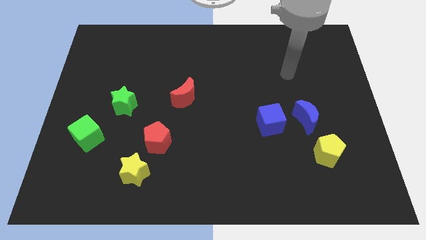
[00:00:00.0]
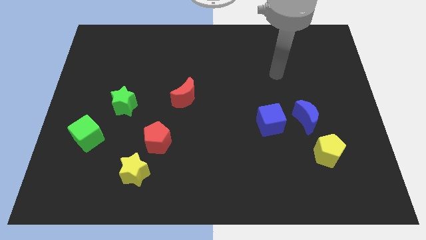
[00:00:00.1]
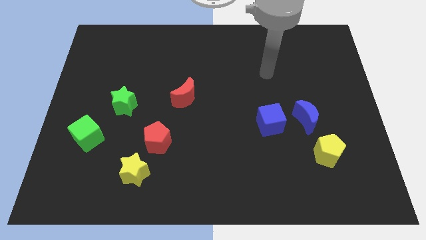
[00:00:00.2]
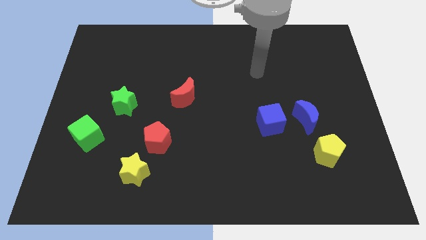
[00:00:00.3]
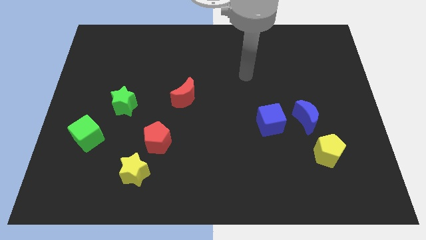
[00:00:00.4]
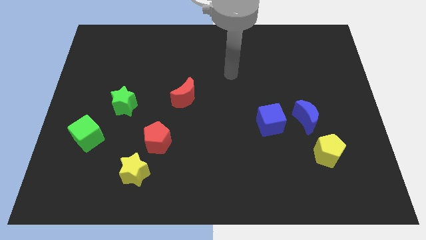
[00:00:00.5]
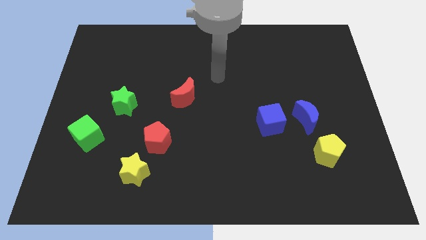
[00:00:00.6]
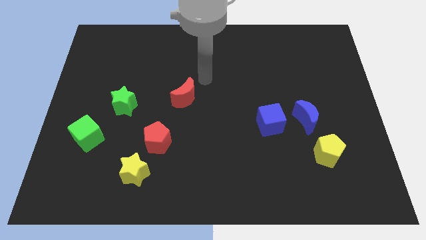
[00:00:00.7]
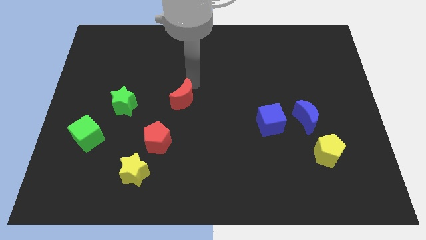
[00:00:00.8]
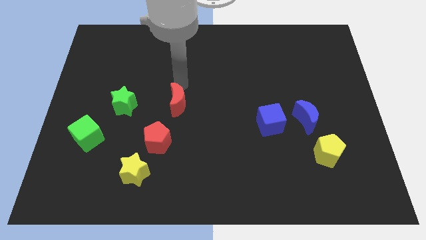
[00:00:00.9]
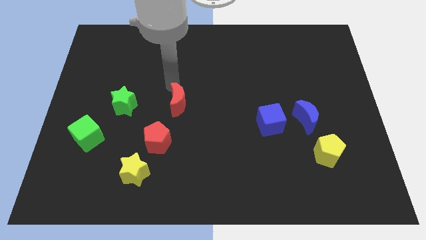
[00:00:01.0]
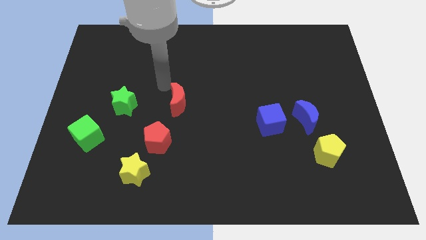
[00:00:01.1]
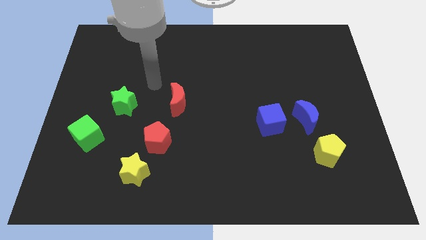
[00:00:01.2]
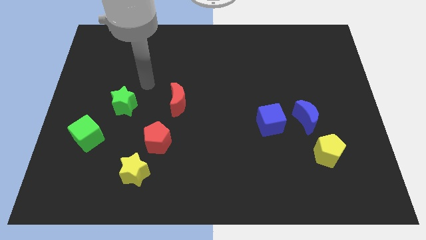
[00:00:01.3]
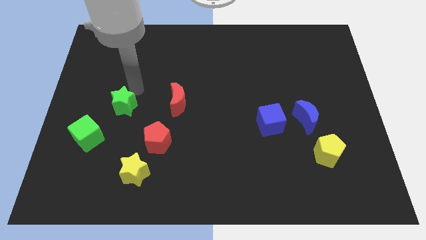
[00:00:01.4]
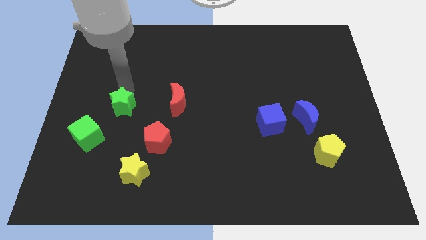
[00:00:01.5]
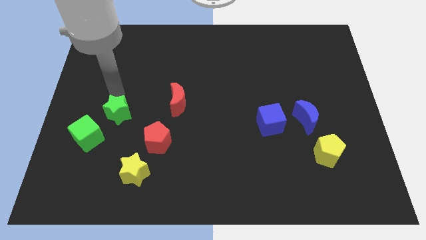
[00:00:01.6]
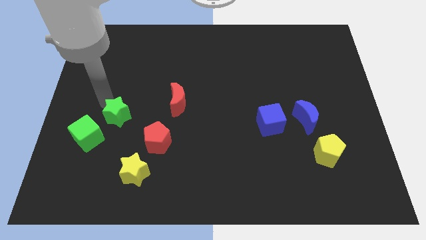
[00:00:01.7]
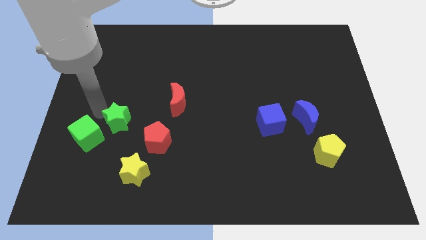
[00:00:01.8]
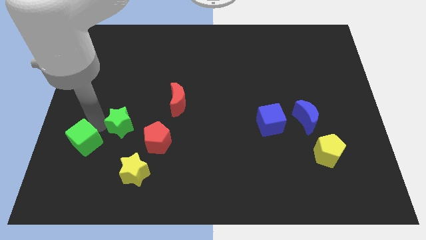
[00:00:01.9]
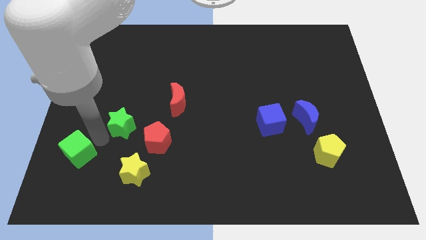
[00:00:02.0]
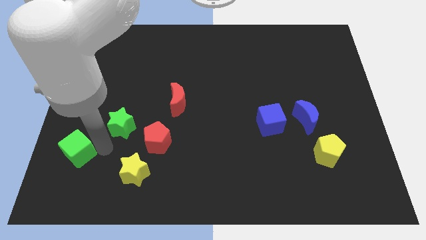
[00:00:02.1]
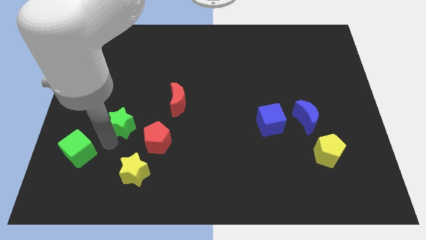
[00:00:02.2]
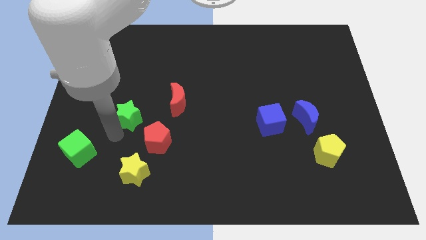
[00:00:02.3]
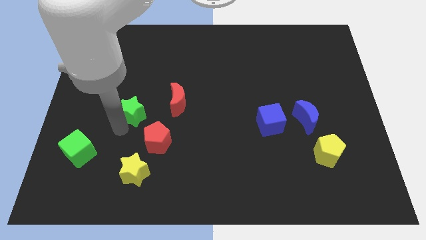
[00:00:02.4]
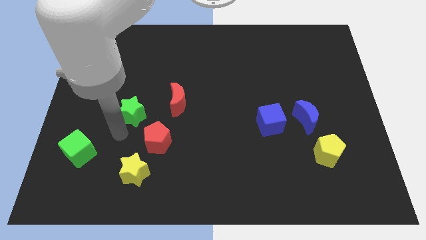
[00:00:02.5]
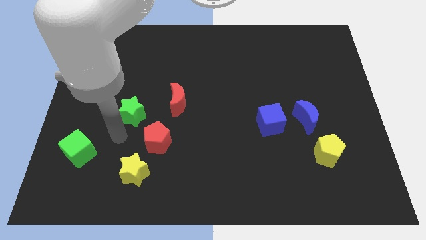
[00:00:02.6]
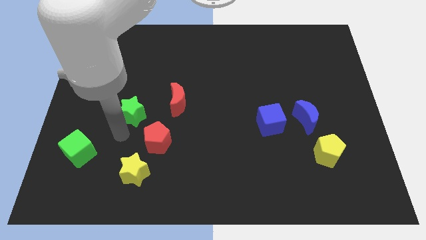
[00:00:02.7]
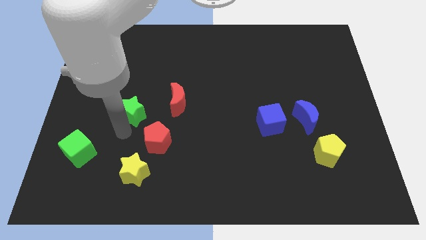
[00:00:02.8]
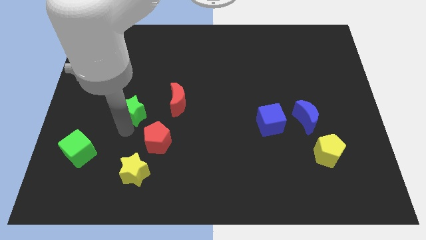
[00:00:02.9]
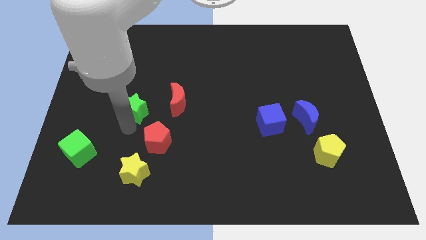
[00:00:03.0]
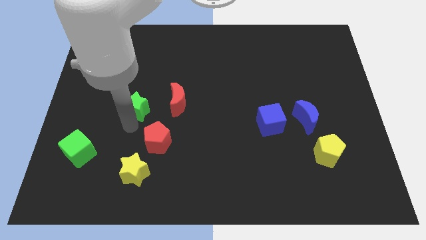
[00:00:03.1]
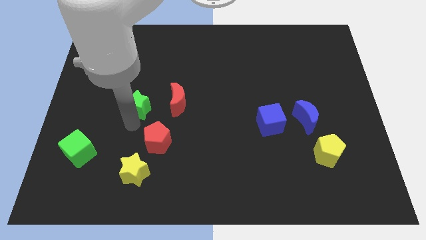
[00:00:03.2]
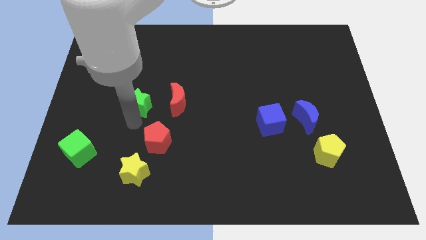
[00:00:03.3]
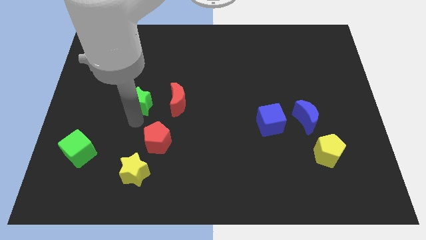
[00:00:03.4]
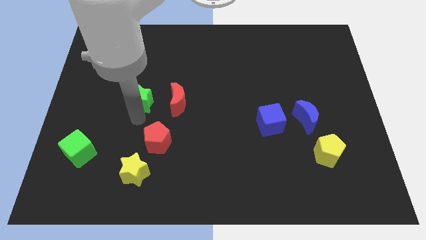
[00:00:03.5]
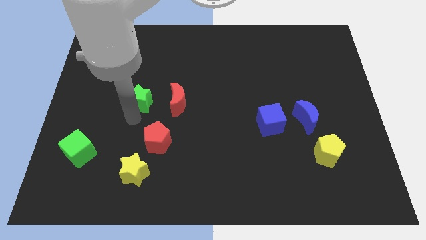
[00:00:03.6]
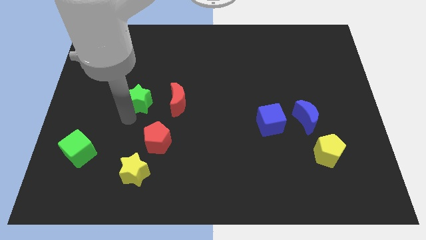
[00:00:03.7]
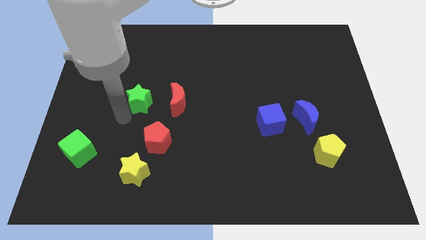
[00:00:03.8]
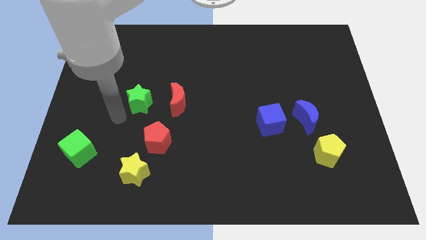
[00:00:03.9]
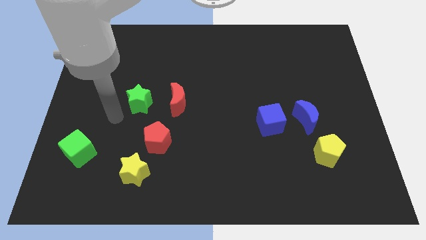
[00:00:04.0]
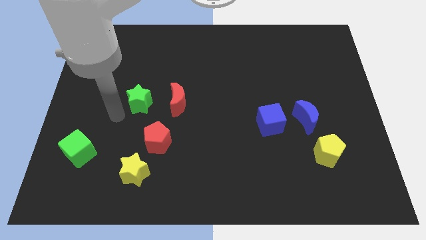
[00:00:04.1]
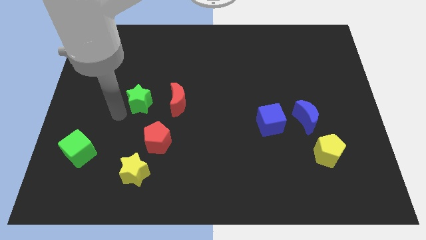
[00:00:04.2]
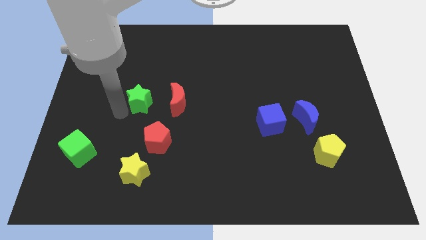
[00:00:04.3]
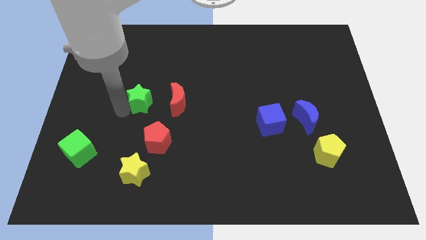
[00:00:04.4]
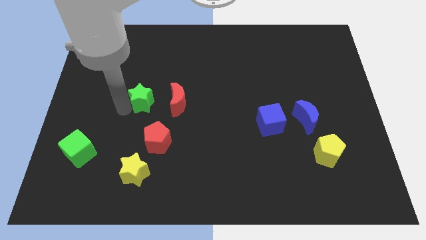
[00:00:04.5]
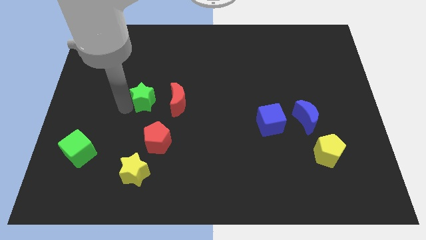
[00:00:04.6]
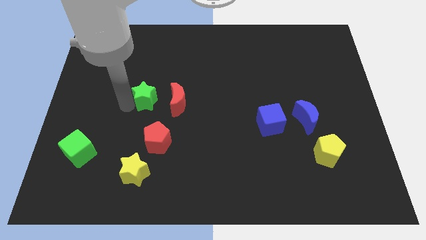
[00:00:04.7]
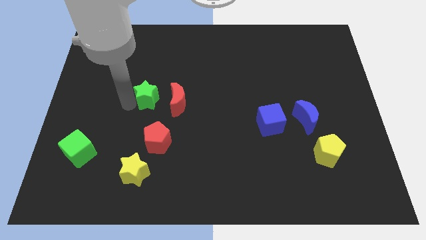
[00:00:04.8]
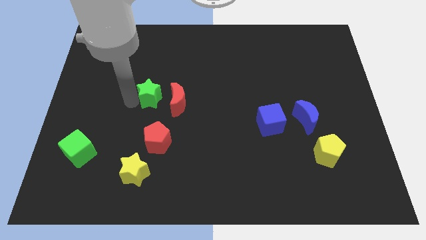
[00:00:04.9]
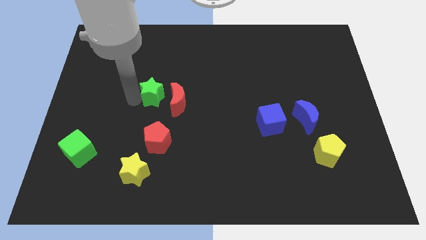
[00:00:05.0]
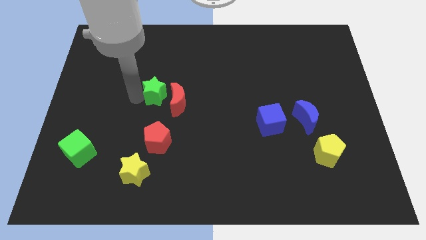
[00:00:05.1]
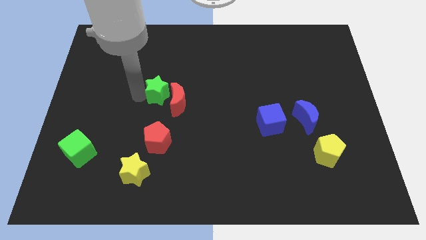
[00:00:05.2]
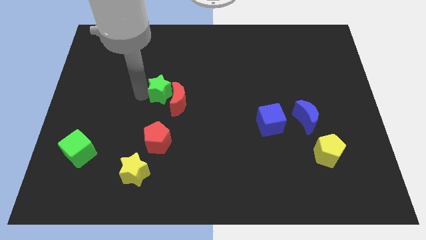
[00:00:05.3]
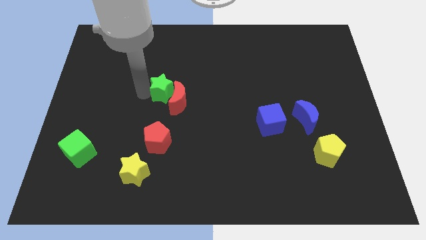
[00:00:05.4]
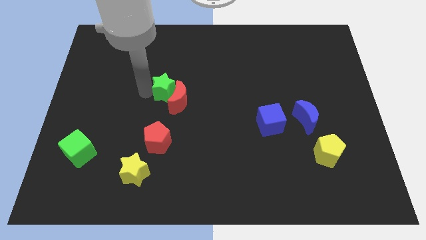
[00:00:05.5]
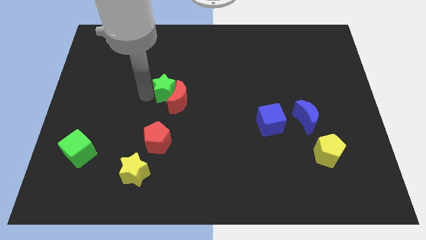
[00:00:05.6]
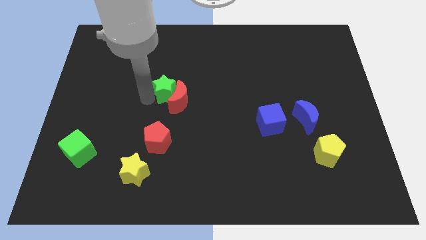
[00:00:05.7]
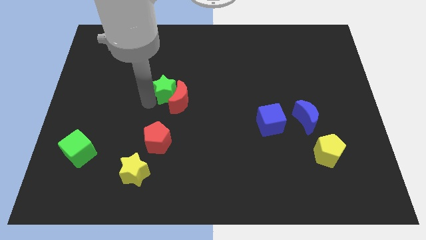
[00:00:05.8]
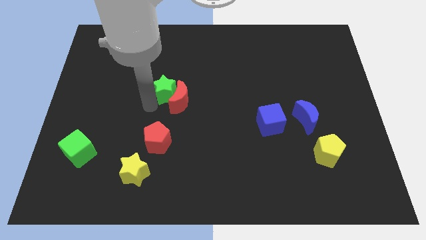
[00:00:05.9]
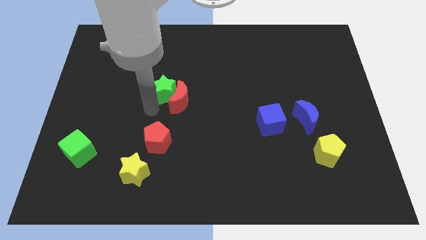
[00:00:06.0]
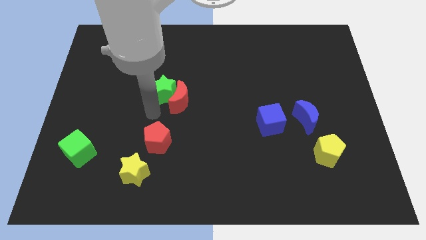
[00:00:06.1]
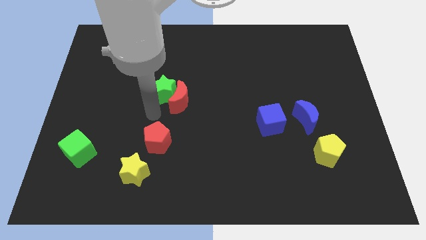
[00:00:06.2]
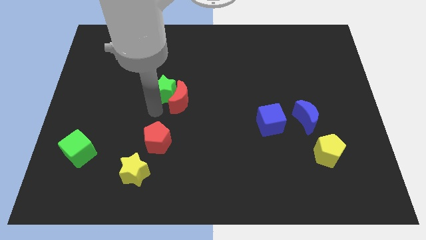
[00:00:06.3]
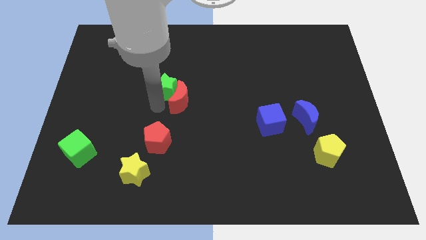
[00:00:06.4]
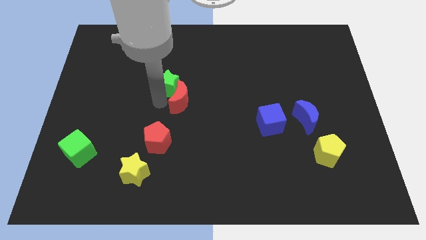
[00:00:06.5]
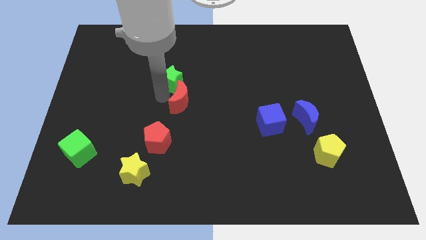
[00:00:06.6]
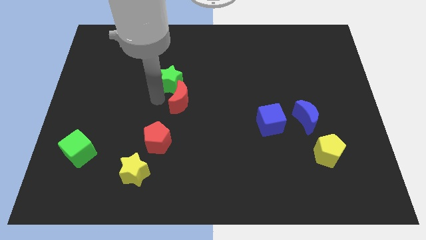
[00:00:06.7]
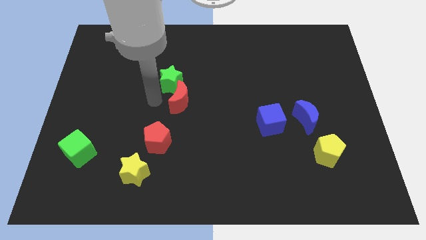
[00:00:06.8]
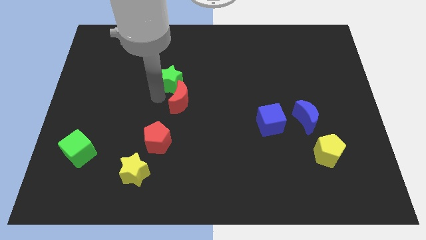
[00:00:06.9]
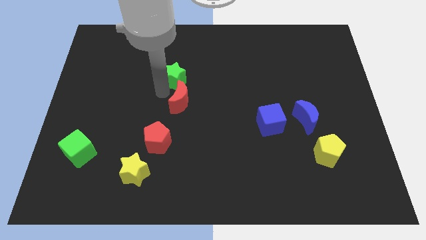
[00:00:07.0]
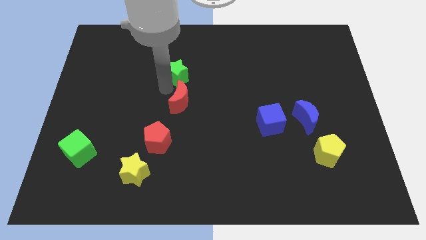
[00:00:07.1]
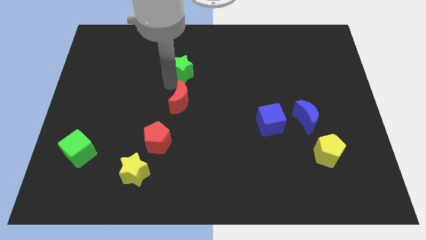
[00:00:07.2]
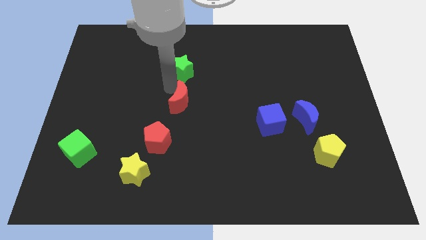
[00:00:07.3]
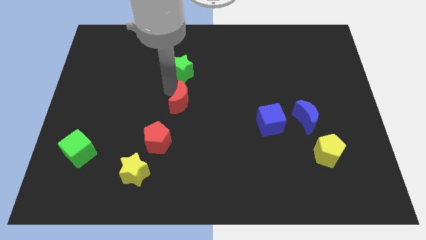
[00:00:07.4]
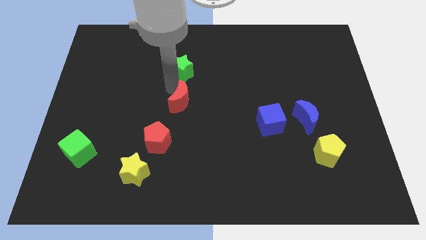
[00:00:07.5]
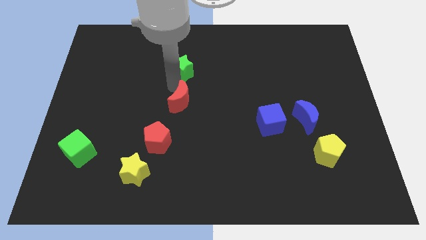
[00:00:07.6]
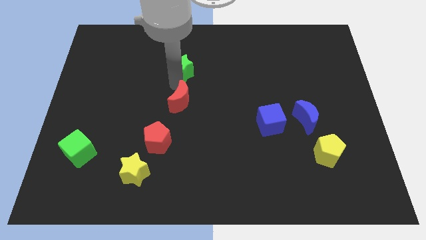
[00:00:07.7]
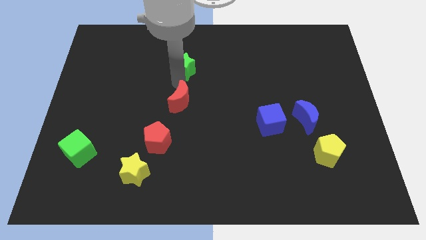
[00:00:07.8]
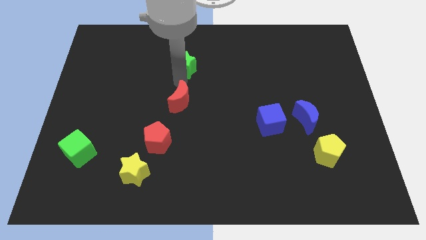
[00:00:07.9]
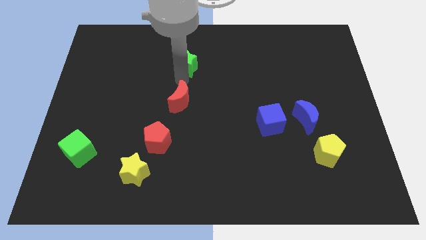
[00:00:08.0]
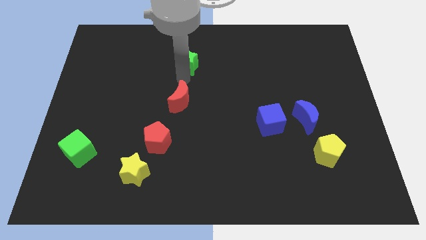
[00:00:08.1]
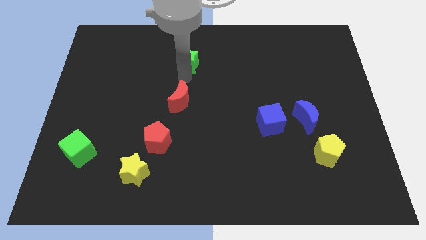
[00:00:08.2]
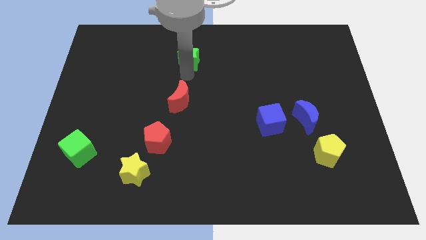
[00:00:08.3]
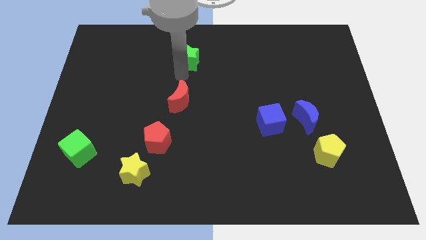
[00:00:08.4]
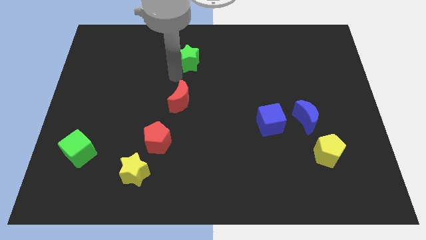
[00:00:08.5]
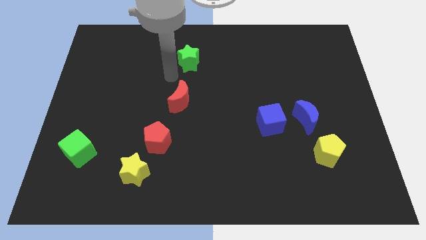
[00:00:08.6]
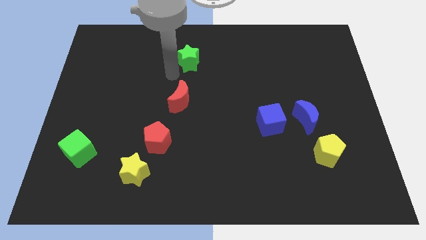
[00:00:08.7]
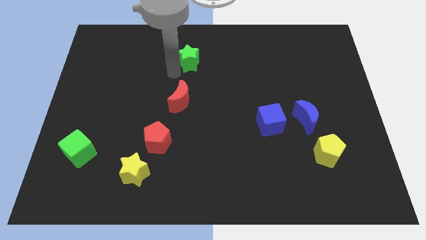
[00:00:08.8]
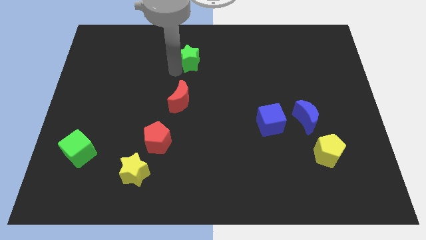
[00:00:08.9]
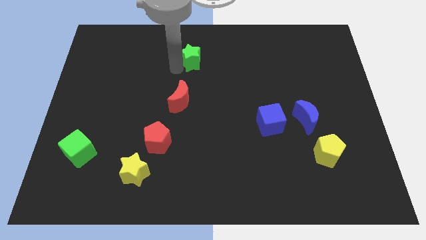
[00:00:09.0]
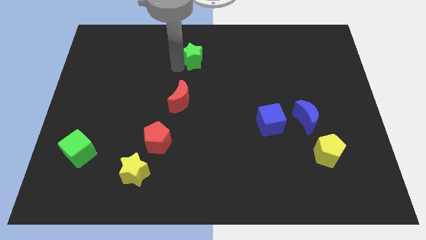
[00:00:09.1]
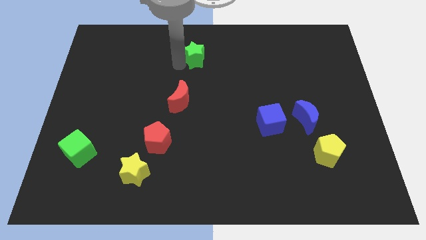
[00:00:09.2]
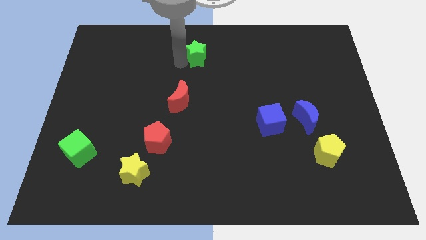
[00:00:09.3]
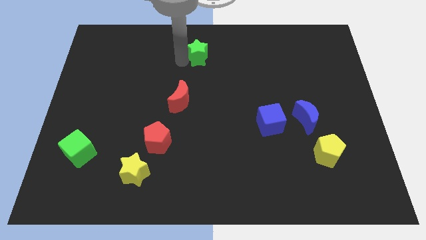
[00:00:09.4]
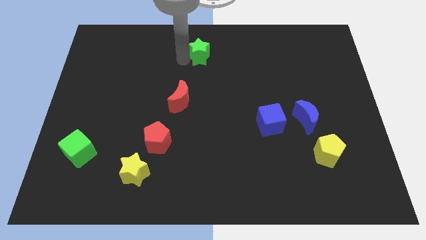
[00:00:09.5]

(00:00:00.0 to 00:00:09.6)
slide the green star to the top side
